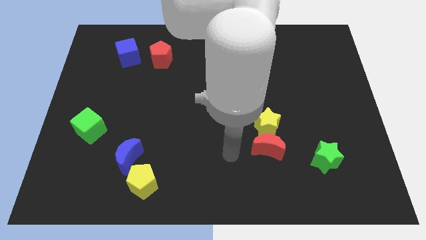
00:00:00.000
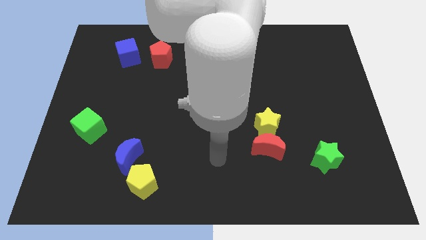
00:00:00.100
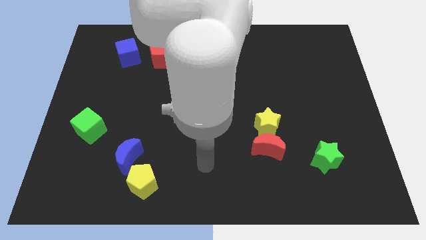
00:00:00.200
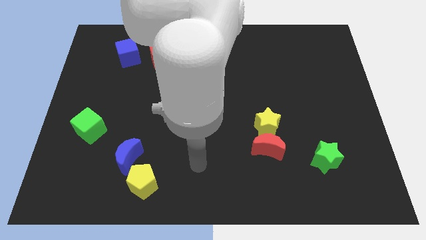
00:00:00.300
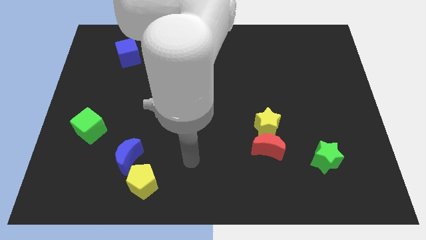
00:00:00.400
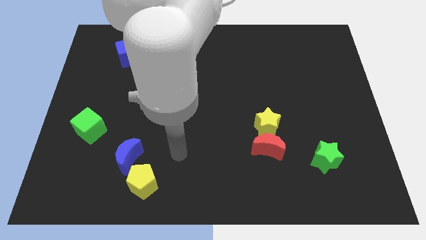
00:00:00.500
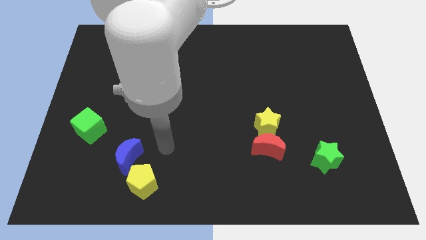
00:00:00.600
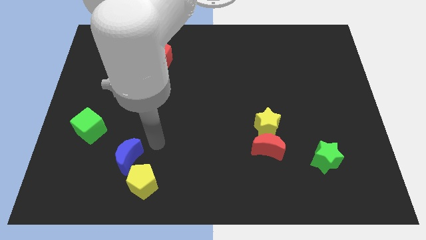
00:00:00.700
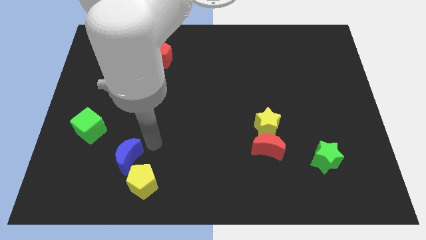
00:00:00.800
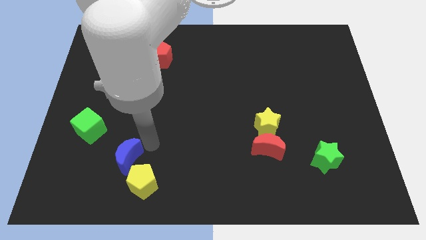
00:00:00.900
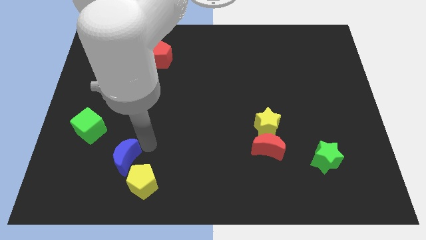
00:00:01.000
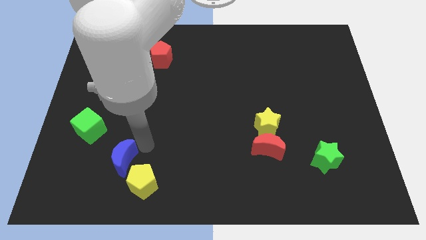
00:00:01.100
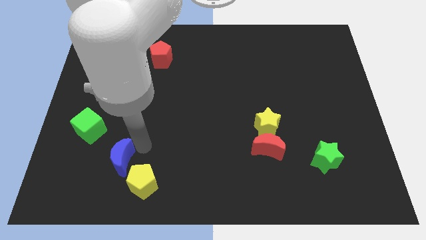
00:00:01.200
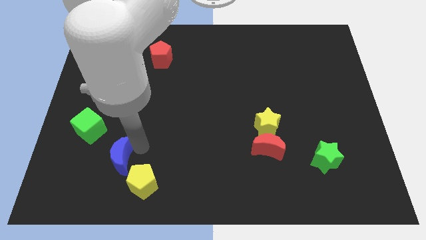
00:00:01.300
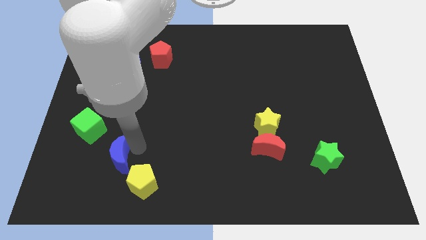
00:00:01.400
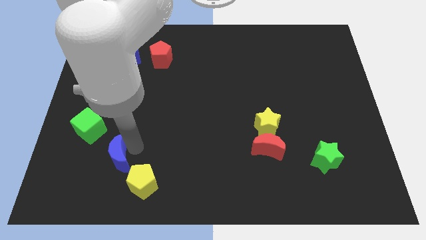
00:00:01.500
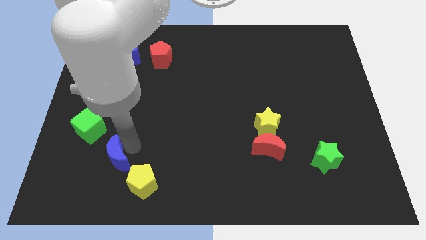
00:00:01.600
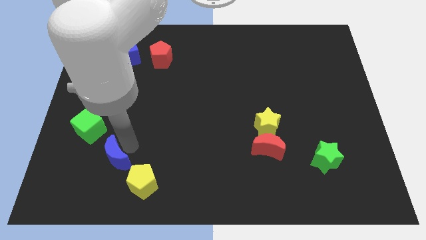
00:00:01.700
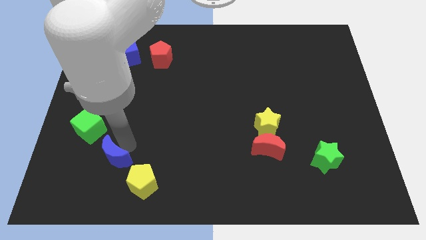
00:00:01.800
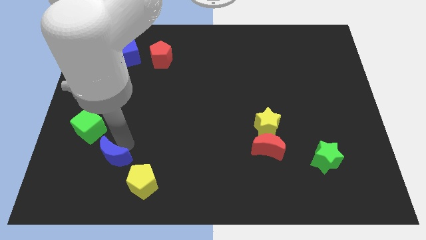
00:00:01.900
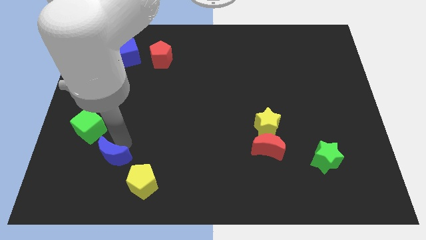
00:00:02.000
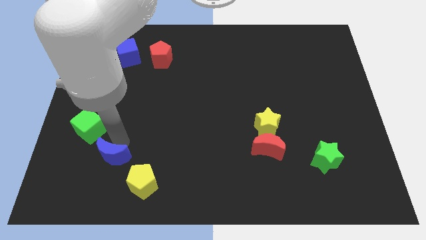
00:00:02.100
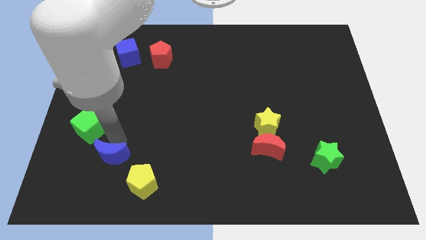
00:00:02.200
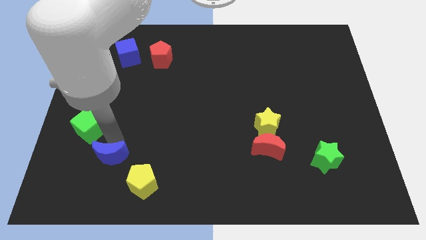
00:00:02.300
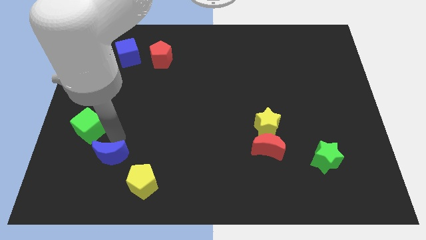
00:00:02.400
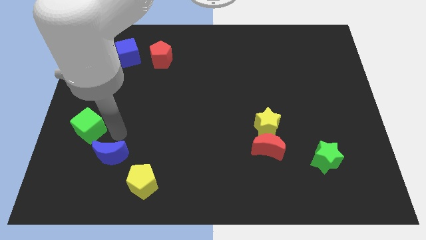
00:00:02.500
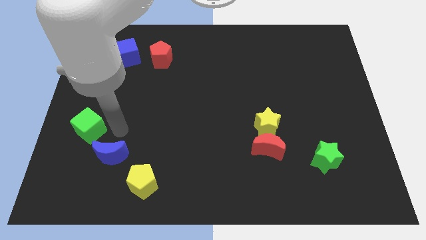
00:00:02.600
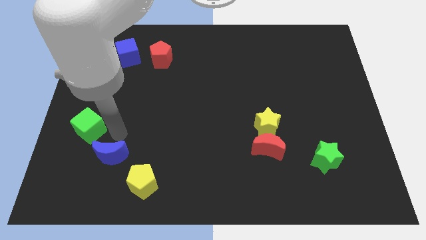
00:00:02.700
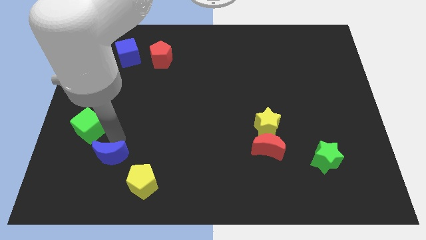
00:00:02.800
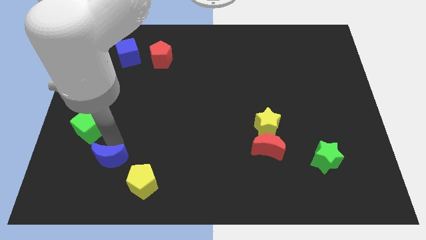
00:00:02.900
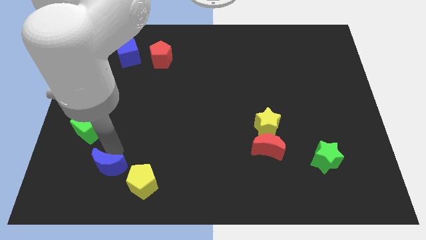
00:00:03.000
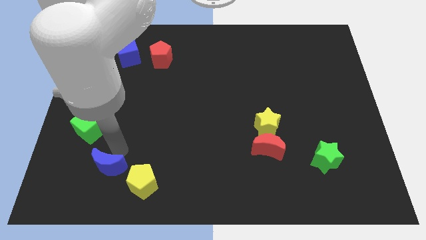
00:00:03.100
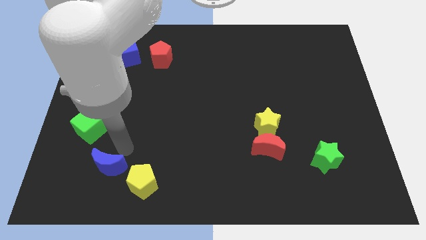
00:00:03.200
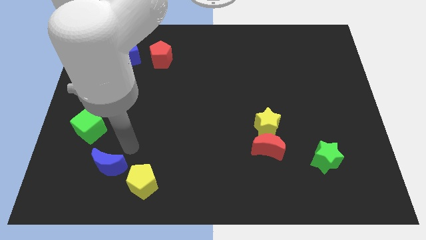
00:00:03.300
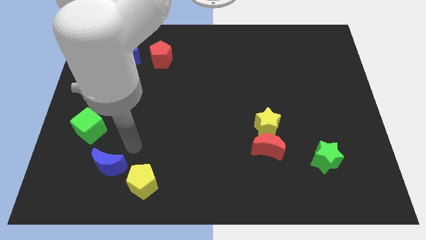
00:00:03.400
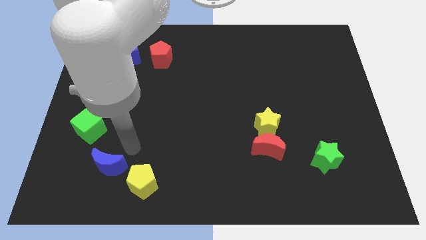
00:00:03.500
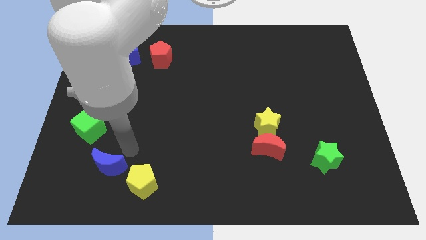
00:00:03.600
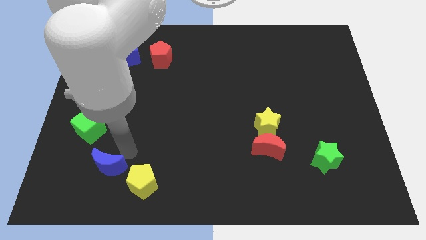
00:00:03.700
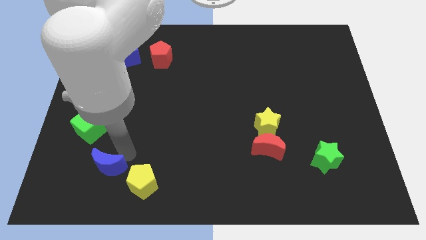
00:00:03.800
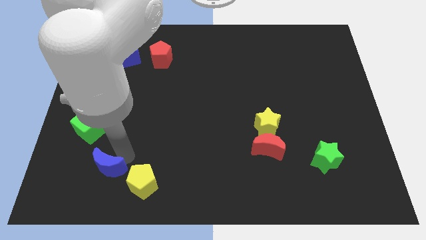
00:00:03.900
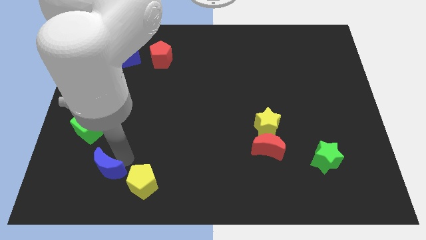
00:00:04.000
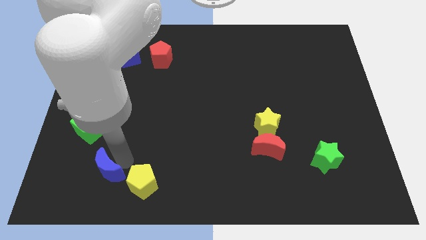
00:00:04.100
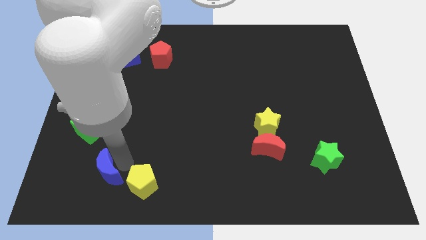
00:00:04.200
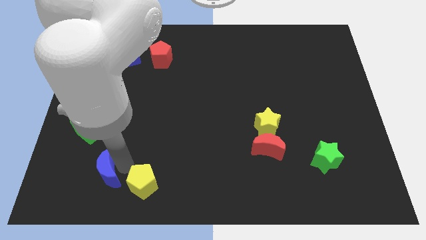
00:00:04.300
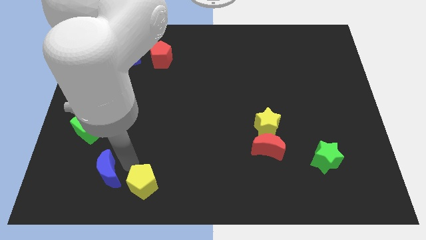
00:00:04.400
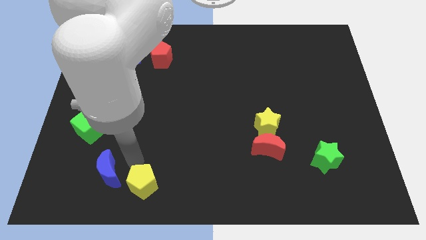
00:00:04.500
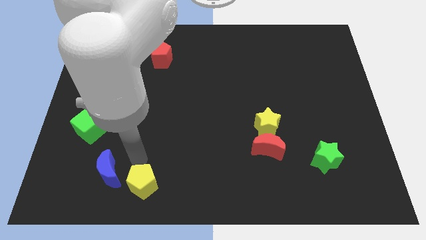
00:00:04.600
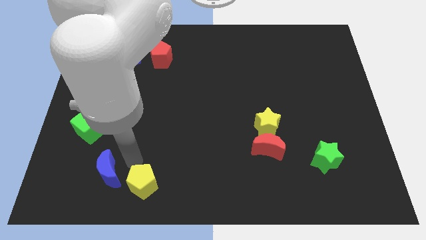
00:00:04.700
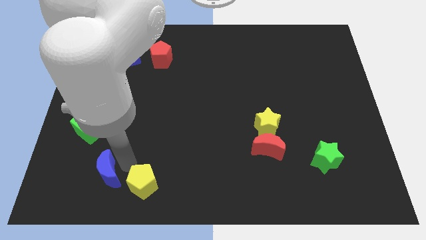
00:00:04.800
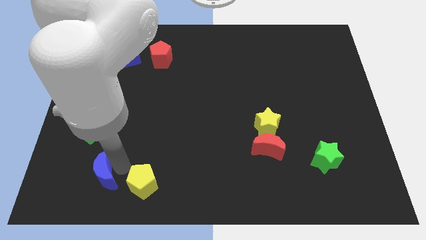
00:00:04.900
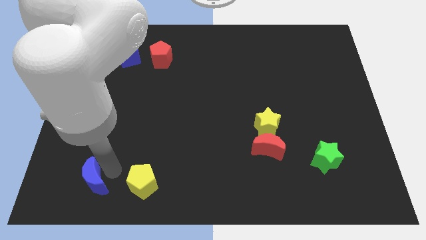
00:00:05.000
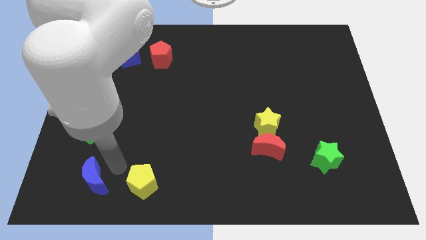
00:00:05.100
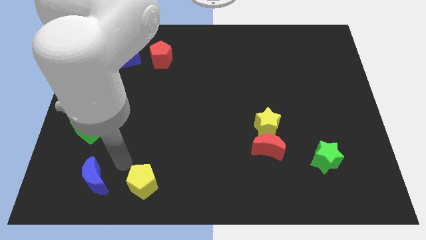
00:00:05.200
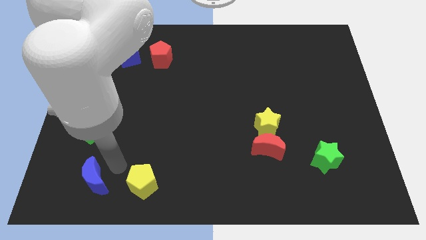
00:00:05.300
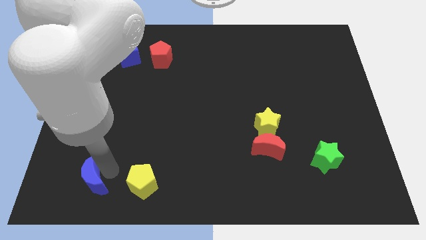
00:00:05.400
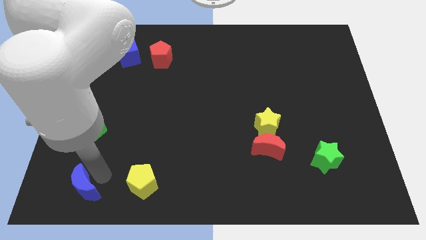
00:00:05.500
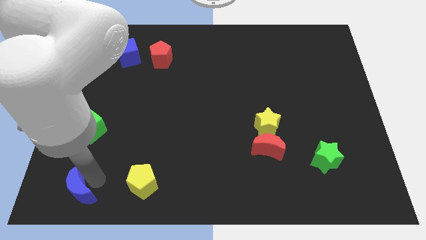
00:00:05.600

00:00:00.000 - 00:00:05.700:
move the blue moon to the bottom left corner
